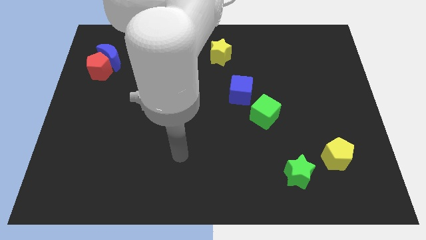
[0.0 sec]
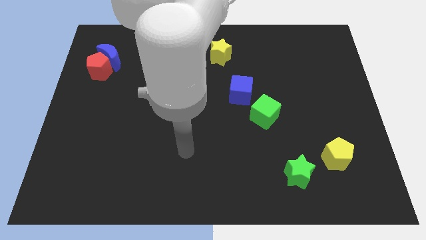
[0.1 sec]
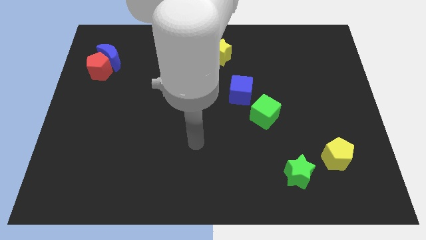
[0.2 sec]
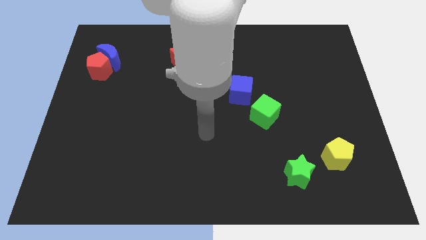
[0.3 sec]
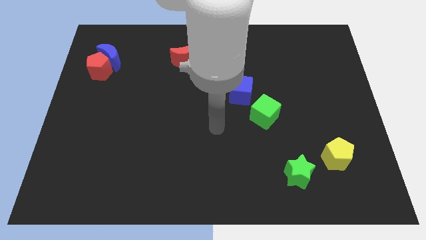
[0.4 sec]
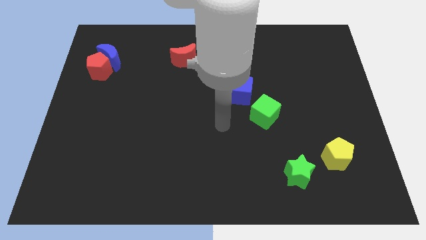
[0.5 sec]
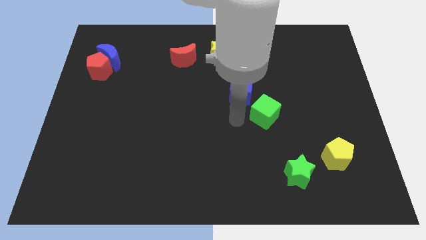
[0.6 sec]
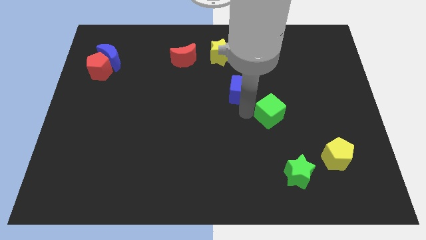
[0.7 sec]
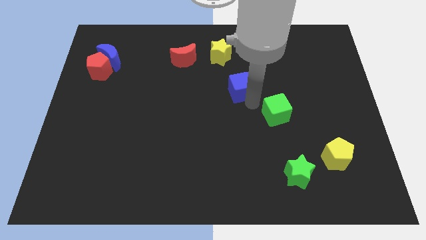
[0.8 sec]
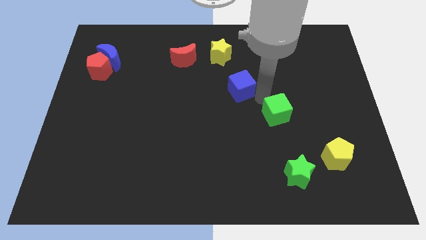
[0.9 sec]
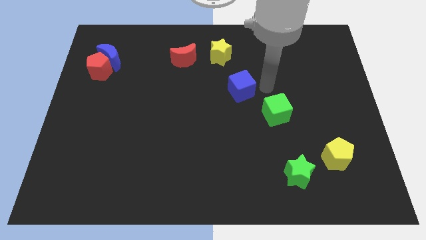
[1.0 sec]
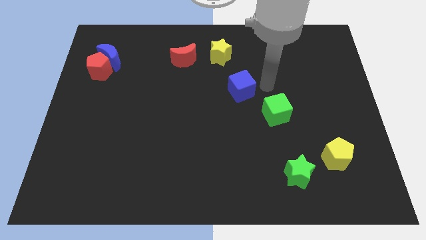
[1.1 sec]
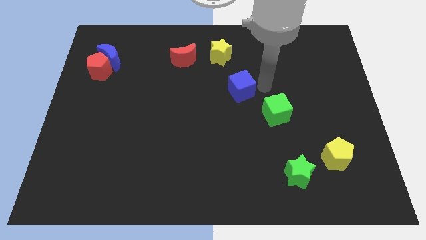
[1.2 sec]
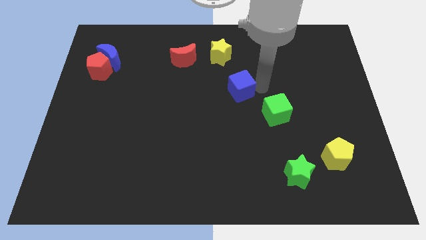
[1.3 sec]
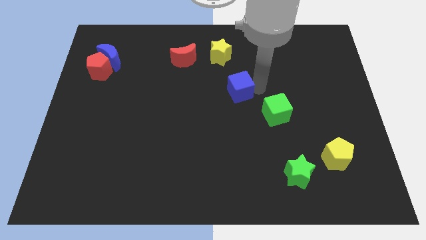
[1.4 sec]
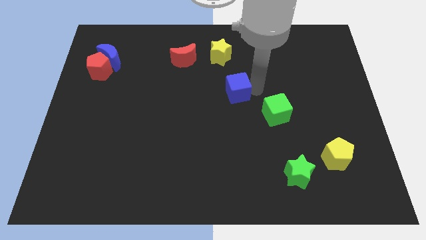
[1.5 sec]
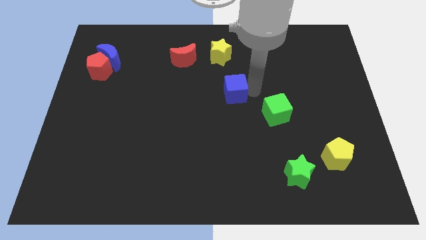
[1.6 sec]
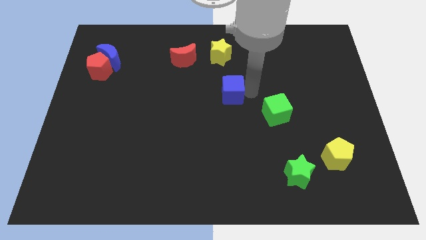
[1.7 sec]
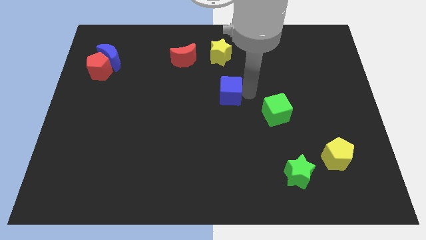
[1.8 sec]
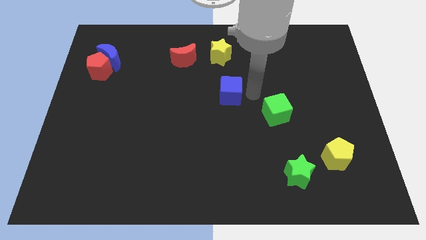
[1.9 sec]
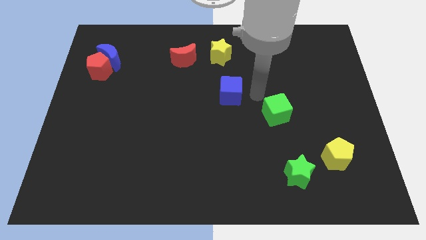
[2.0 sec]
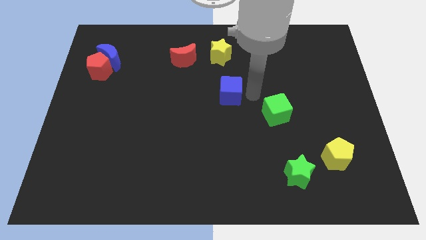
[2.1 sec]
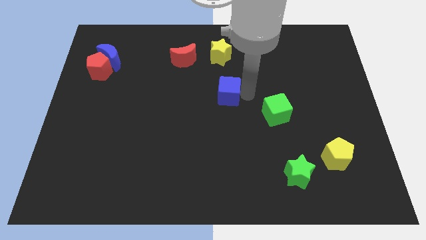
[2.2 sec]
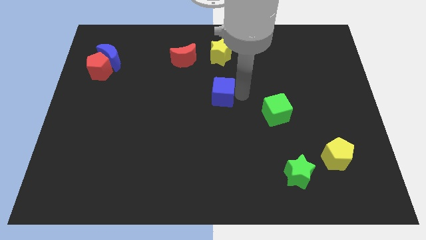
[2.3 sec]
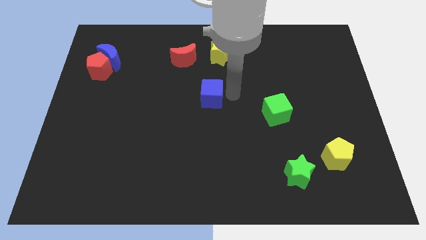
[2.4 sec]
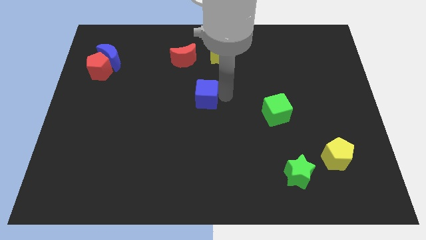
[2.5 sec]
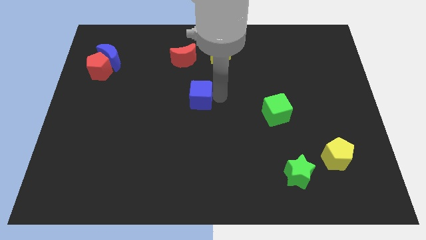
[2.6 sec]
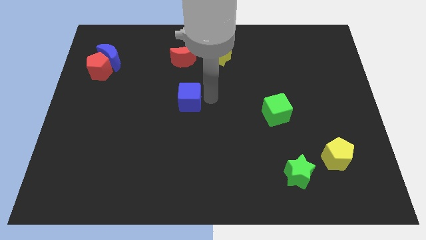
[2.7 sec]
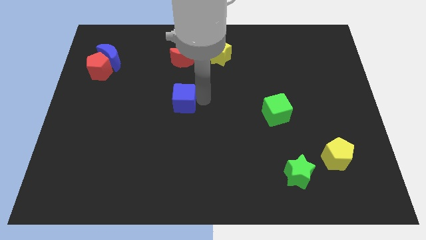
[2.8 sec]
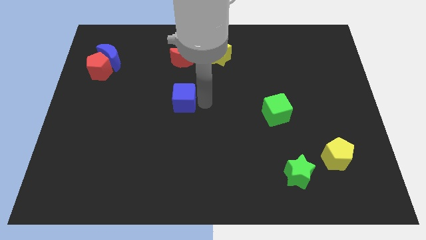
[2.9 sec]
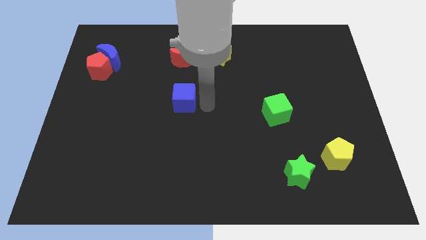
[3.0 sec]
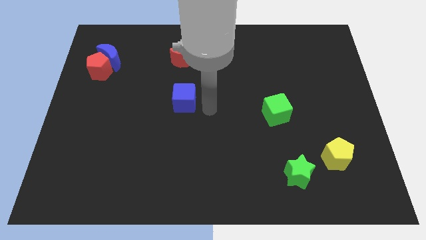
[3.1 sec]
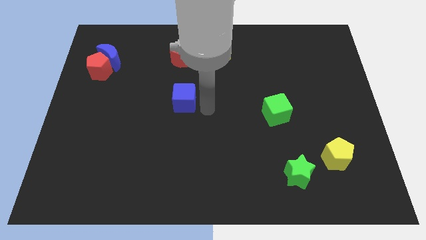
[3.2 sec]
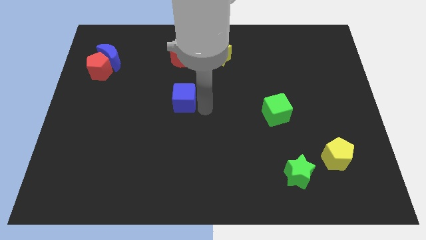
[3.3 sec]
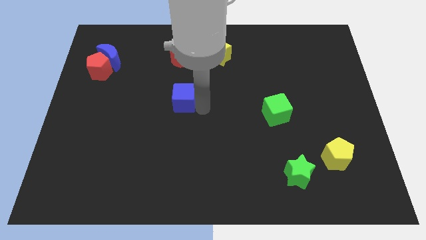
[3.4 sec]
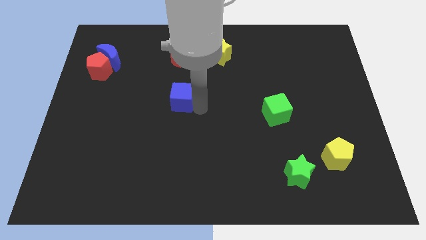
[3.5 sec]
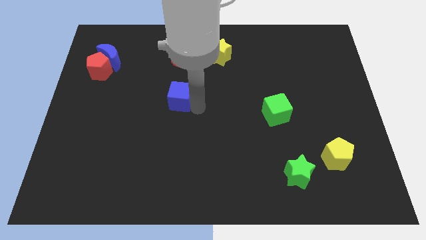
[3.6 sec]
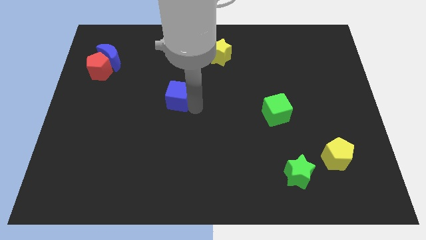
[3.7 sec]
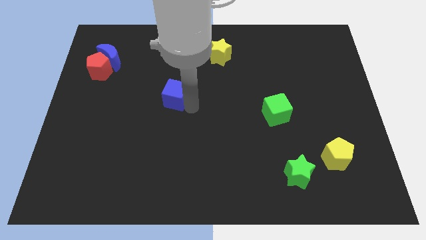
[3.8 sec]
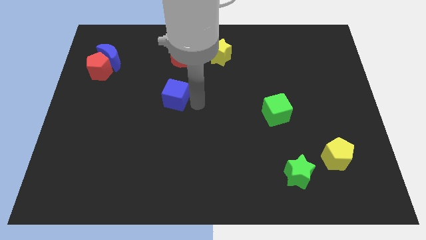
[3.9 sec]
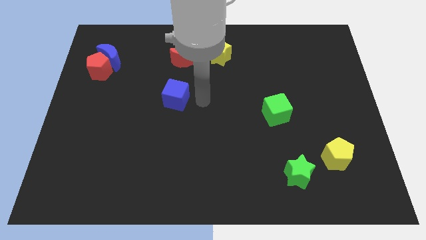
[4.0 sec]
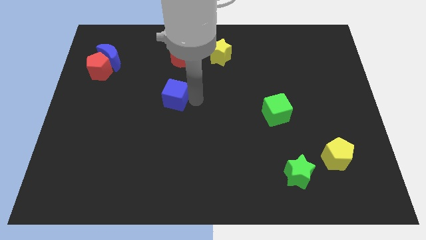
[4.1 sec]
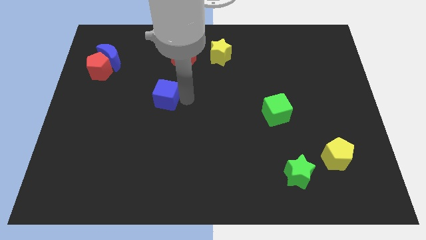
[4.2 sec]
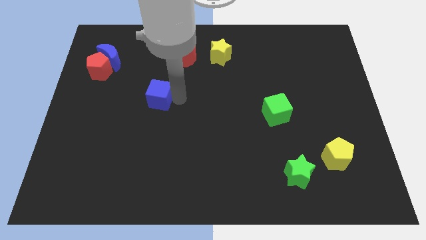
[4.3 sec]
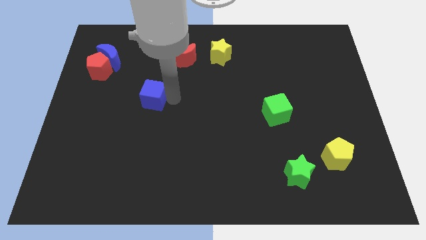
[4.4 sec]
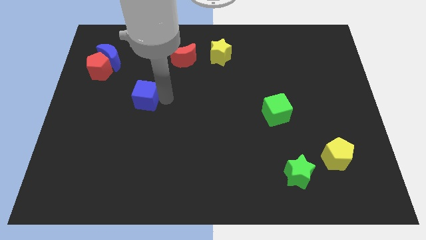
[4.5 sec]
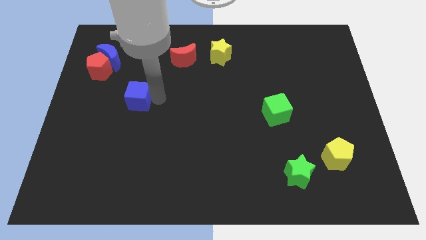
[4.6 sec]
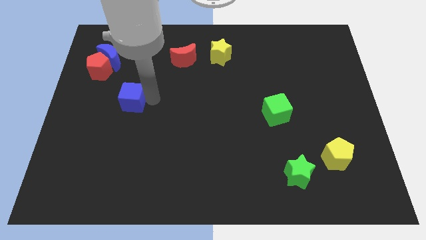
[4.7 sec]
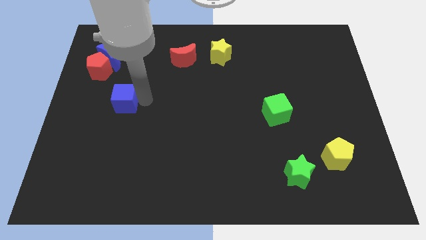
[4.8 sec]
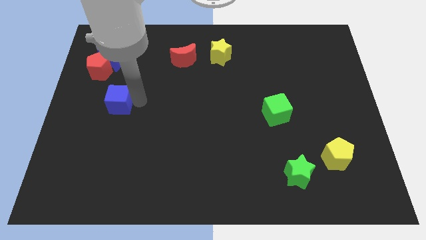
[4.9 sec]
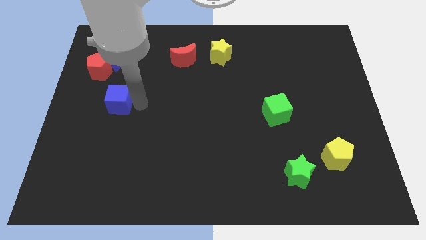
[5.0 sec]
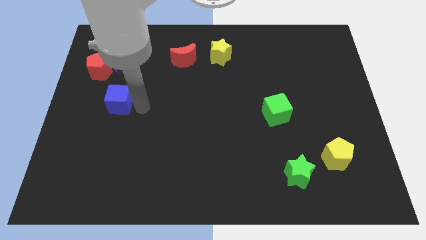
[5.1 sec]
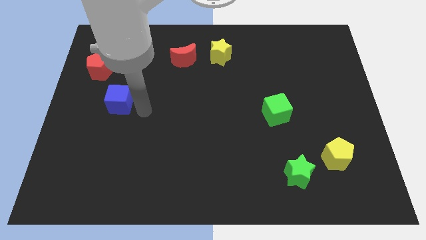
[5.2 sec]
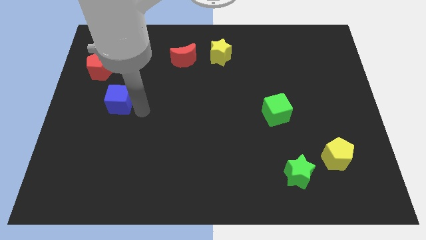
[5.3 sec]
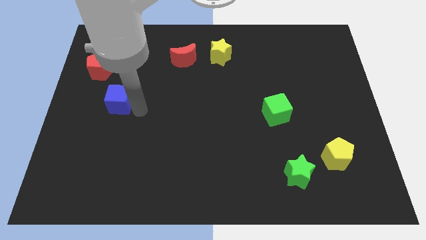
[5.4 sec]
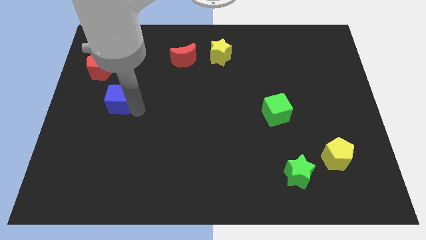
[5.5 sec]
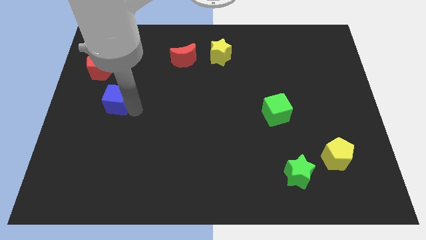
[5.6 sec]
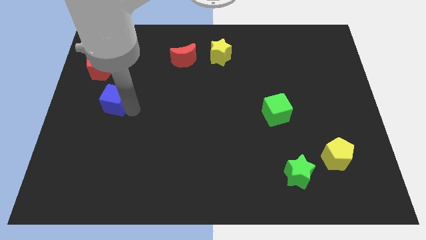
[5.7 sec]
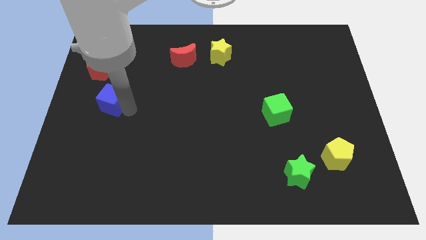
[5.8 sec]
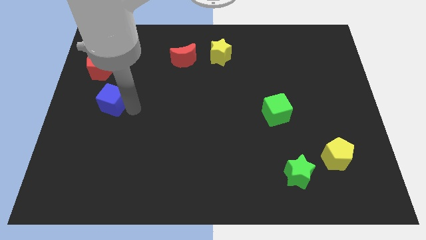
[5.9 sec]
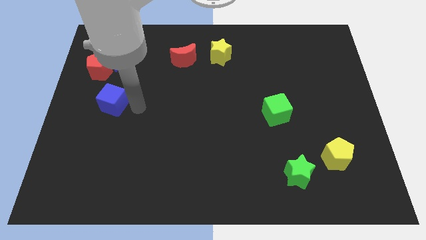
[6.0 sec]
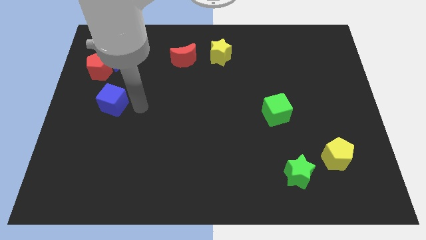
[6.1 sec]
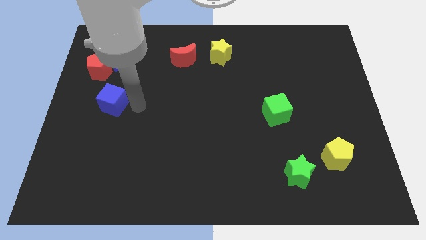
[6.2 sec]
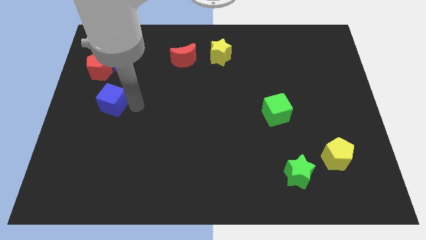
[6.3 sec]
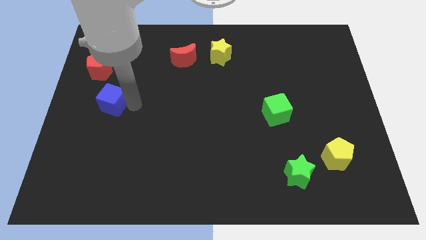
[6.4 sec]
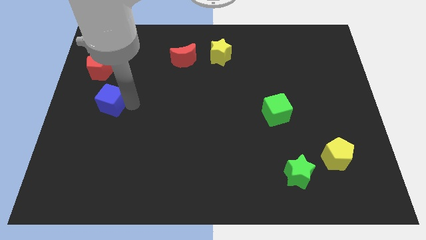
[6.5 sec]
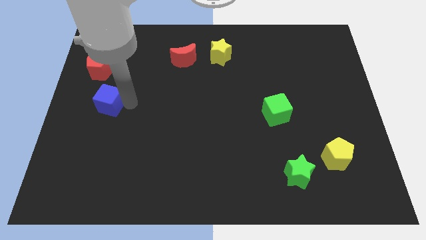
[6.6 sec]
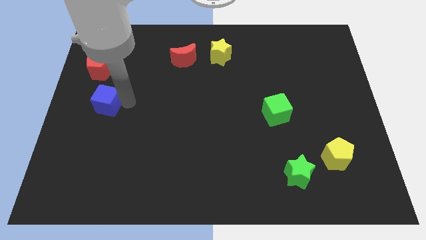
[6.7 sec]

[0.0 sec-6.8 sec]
put the blue cube to the center left

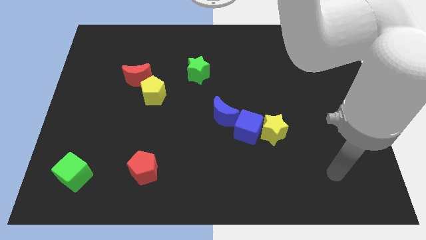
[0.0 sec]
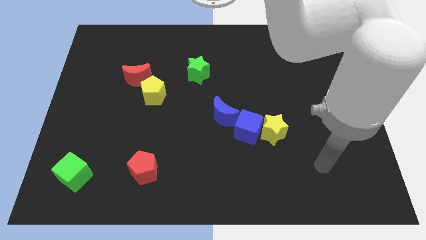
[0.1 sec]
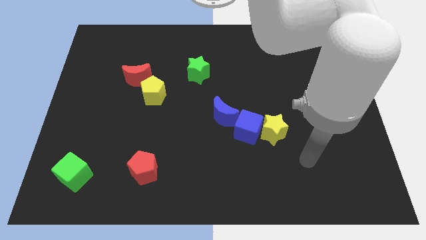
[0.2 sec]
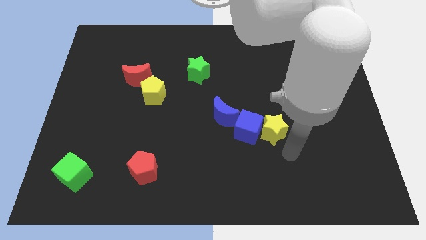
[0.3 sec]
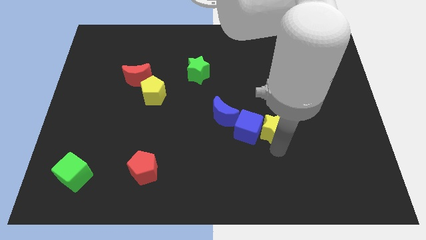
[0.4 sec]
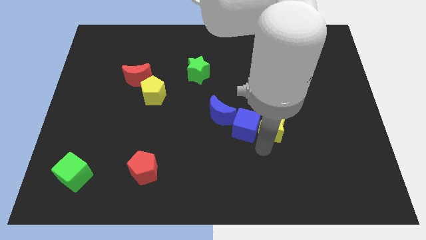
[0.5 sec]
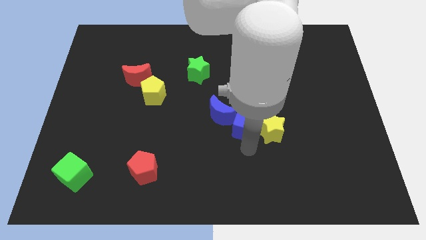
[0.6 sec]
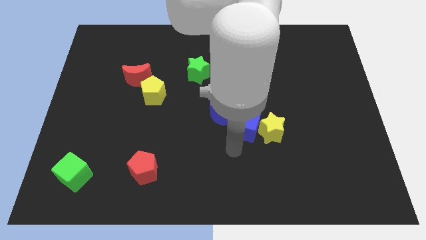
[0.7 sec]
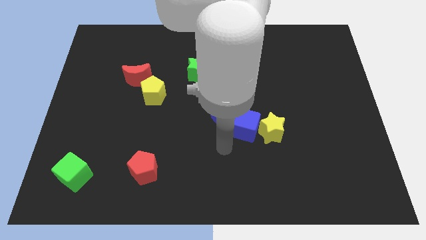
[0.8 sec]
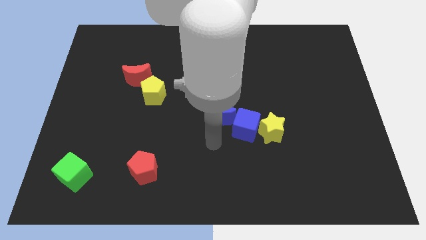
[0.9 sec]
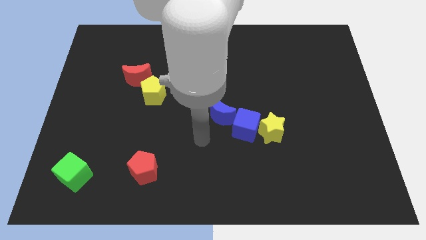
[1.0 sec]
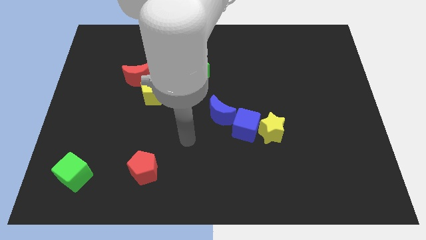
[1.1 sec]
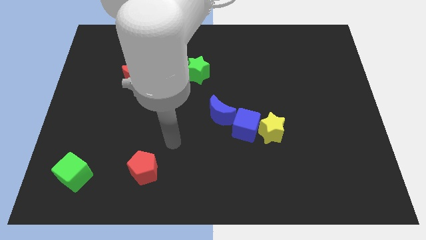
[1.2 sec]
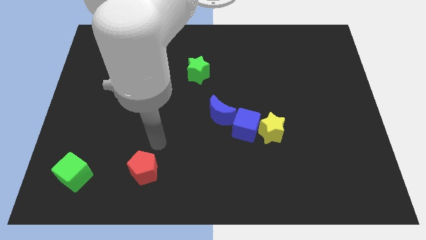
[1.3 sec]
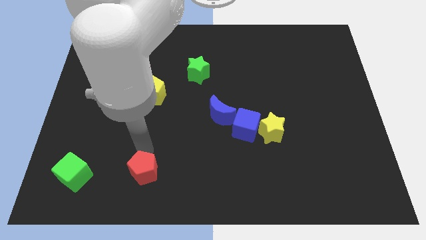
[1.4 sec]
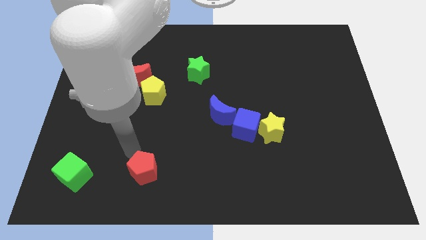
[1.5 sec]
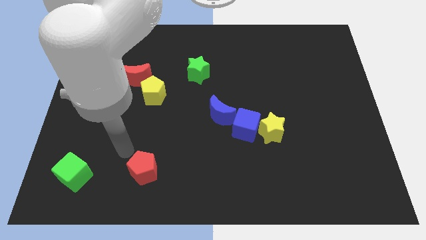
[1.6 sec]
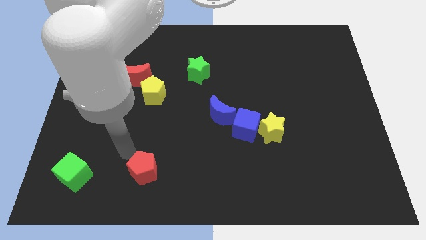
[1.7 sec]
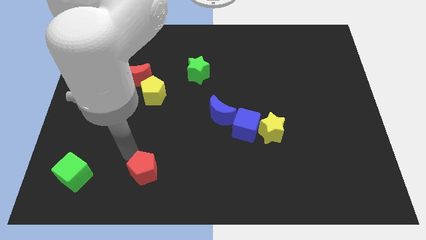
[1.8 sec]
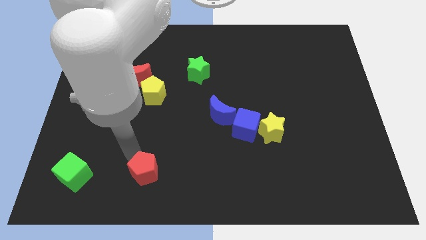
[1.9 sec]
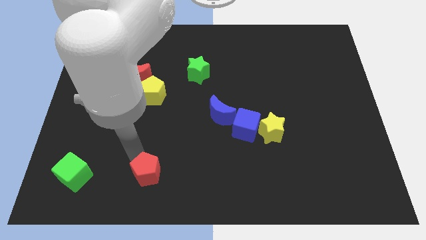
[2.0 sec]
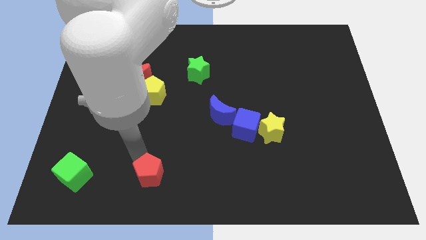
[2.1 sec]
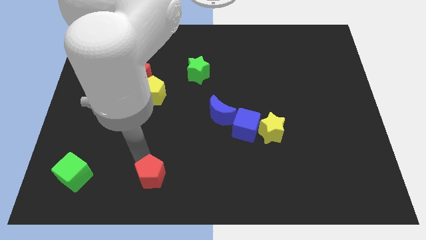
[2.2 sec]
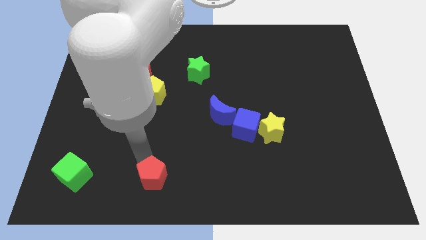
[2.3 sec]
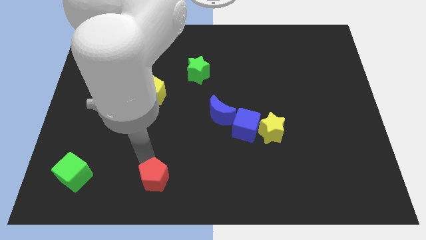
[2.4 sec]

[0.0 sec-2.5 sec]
push the red pentagon to the bottom side
